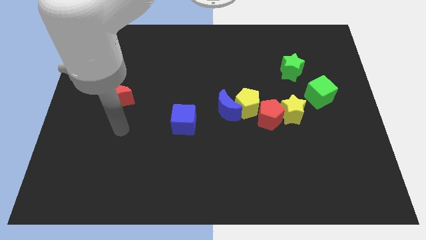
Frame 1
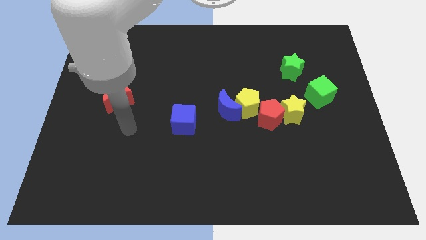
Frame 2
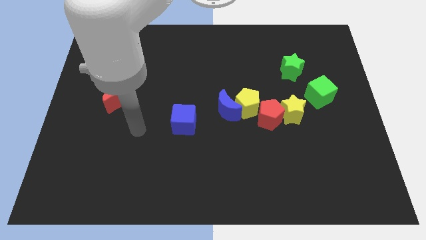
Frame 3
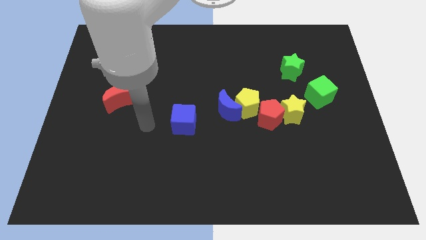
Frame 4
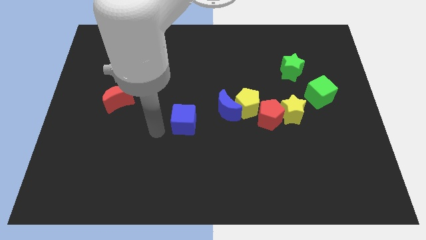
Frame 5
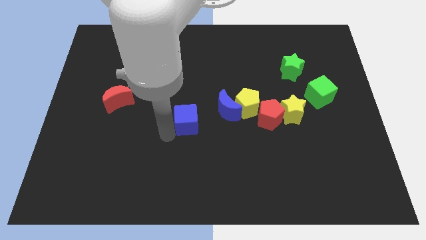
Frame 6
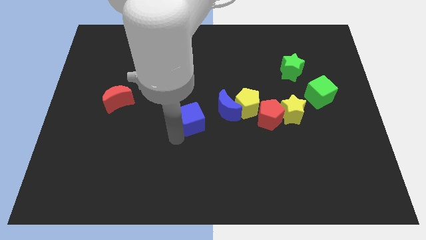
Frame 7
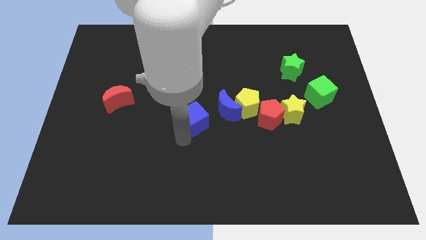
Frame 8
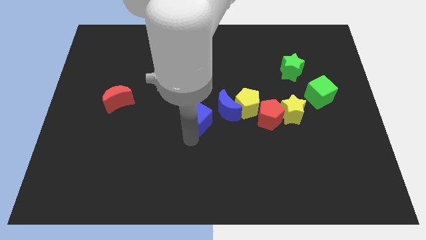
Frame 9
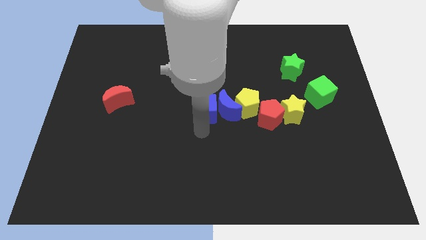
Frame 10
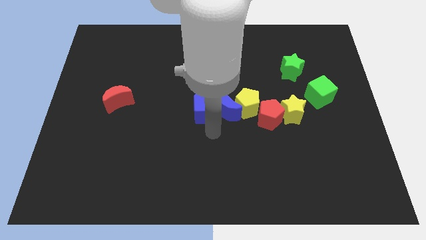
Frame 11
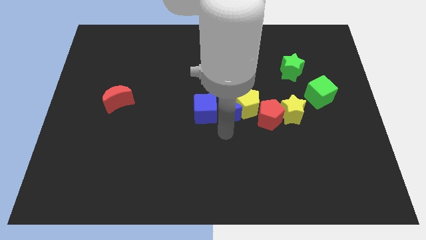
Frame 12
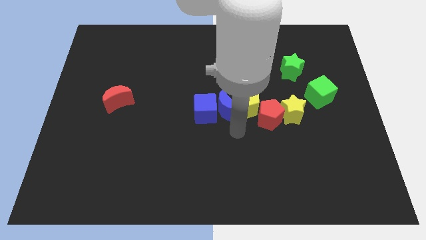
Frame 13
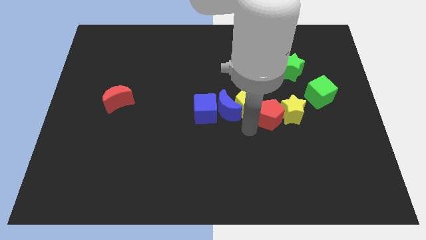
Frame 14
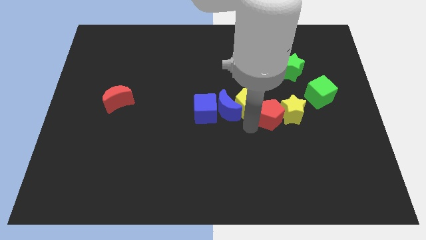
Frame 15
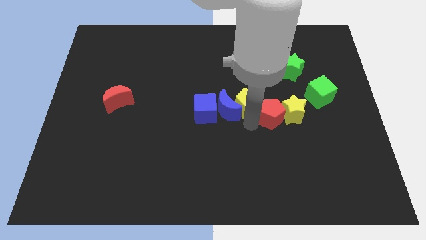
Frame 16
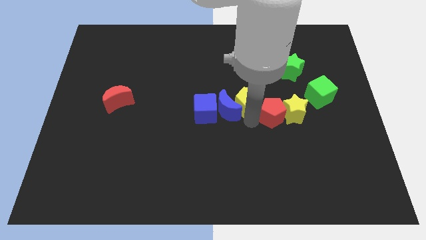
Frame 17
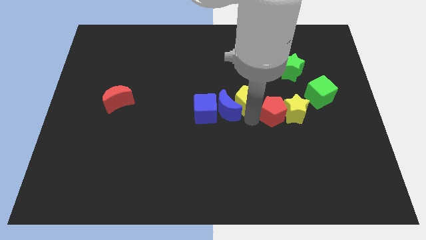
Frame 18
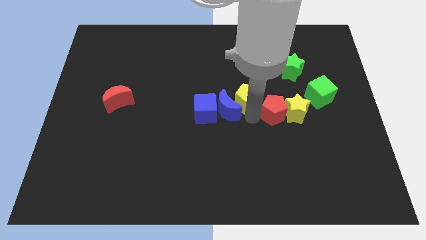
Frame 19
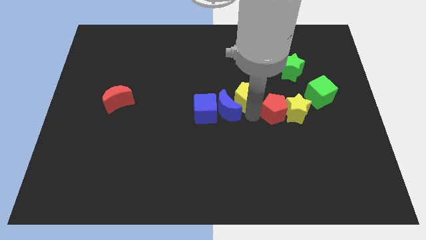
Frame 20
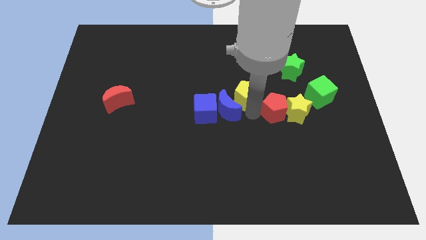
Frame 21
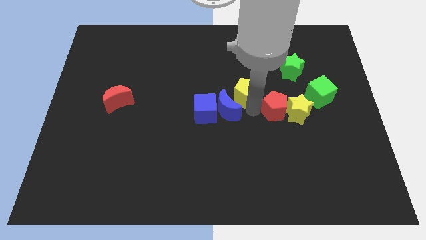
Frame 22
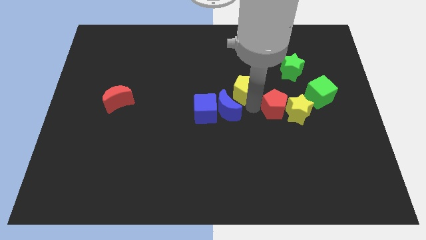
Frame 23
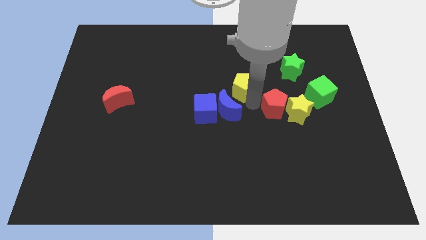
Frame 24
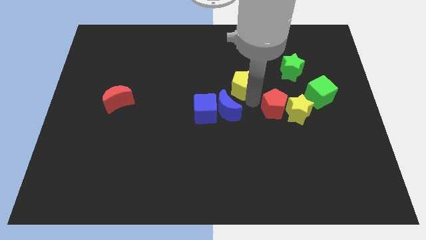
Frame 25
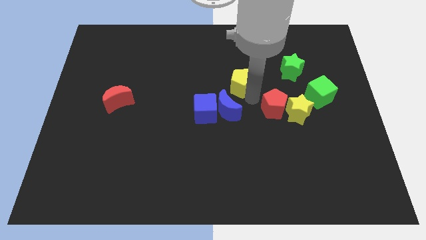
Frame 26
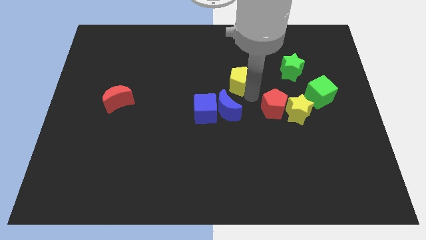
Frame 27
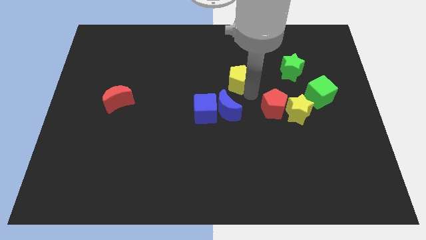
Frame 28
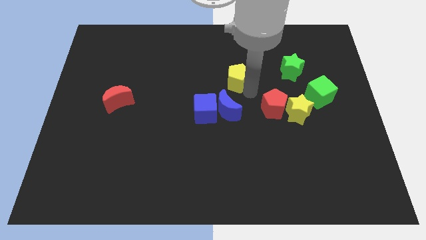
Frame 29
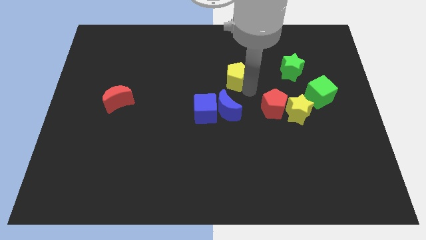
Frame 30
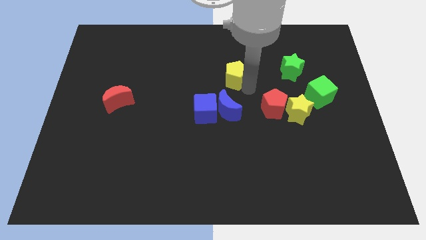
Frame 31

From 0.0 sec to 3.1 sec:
pull the yellow pentagon apart from the blue moon and red pentagon

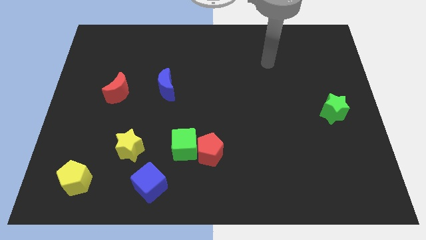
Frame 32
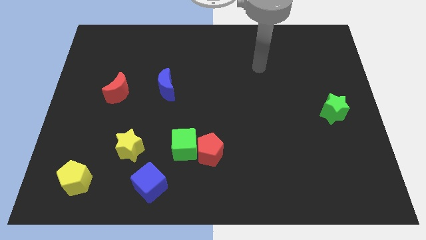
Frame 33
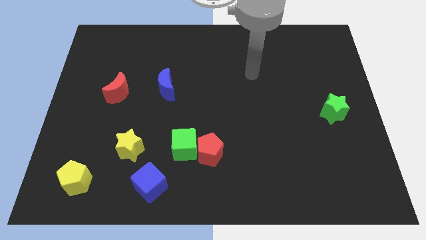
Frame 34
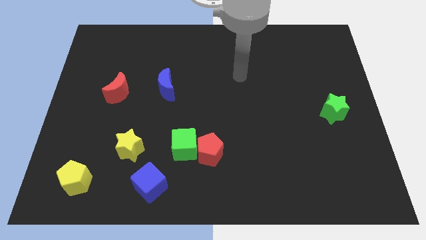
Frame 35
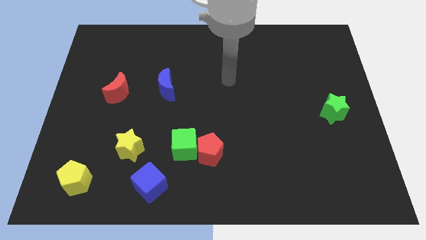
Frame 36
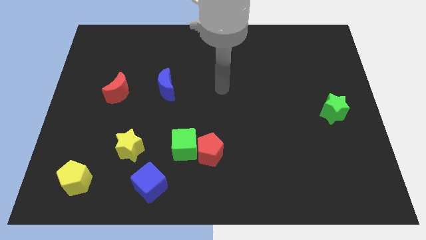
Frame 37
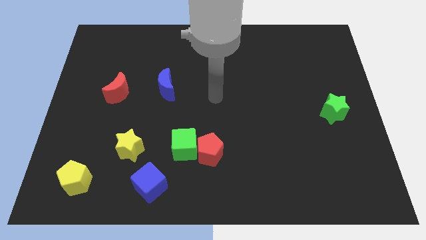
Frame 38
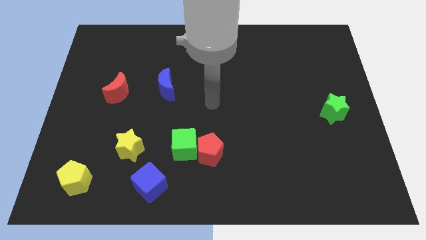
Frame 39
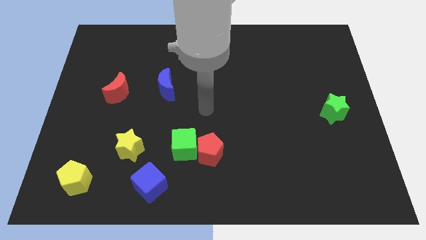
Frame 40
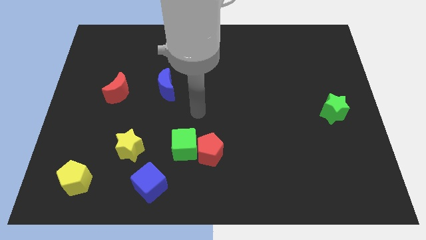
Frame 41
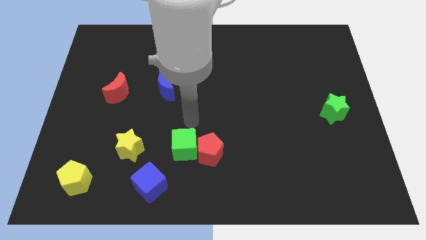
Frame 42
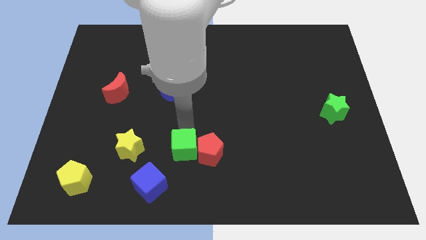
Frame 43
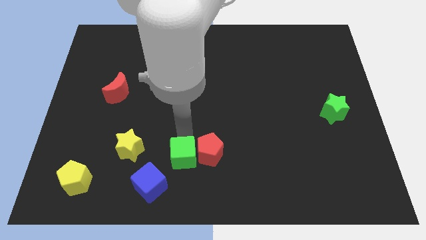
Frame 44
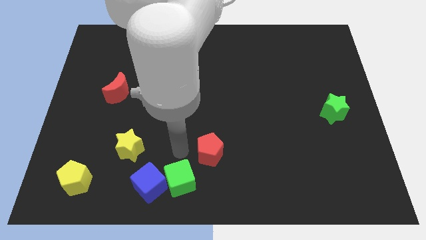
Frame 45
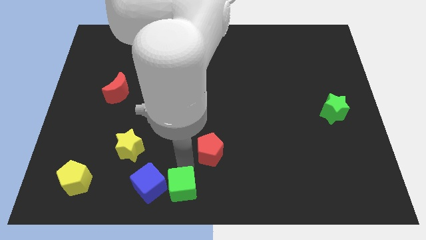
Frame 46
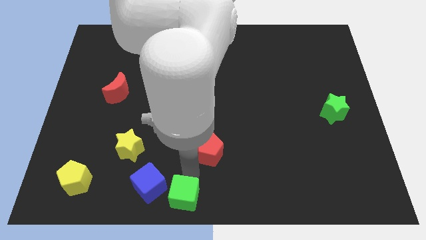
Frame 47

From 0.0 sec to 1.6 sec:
pull the red pentagon apart from the green cube

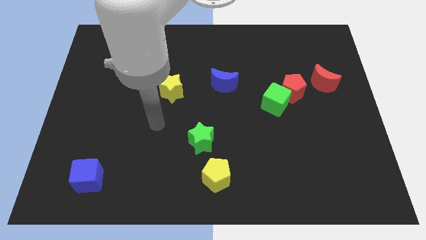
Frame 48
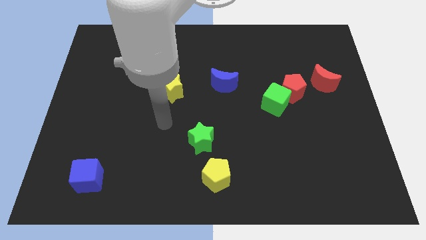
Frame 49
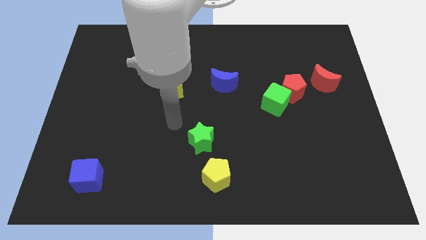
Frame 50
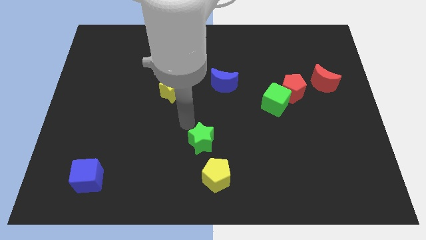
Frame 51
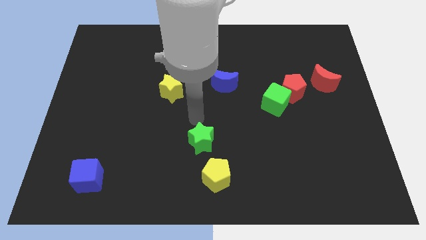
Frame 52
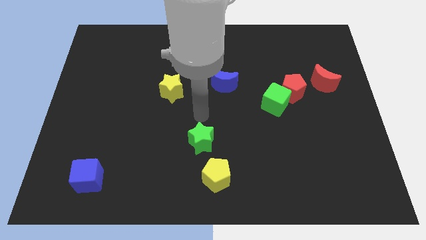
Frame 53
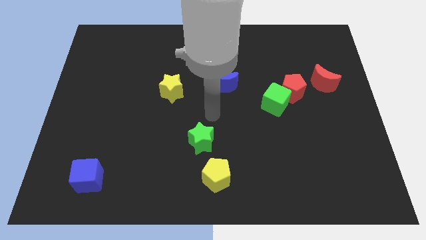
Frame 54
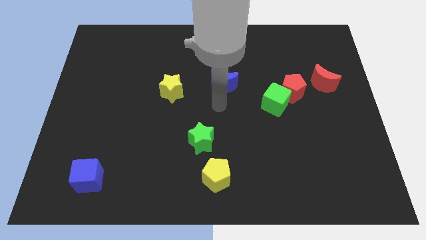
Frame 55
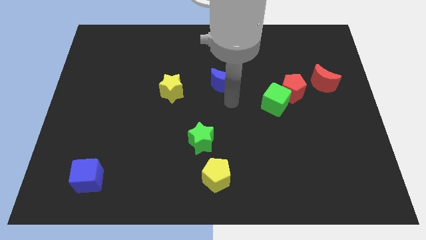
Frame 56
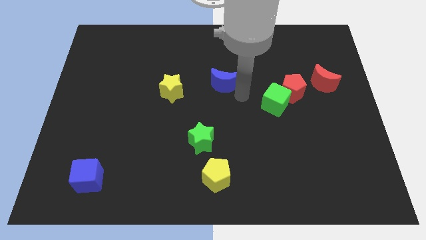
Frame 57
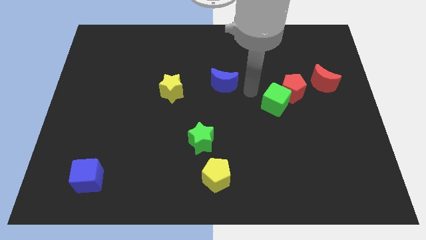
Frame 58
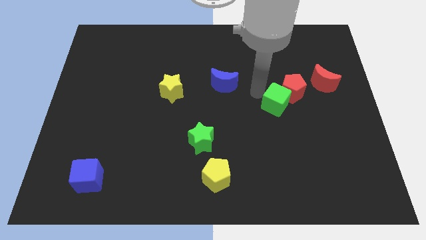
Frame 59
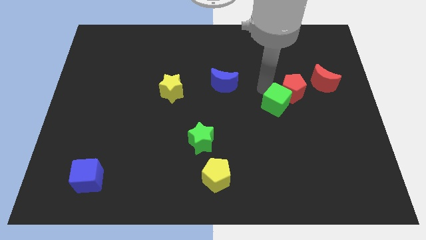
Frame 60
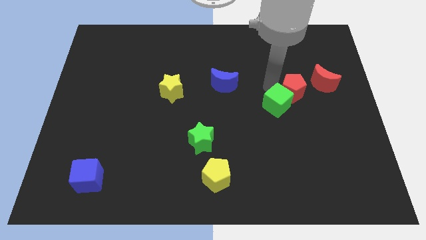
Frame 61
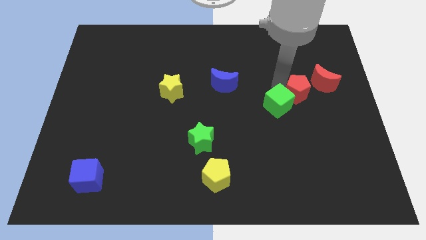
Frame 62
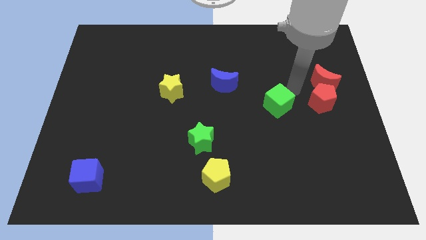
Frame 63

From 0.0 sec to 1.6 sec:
move the green cube away from the red pentagon

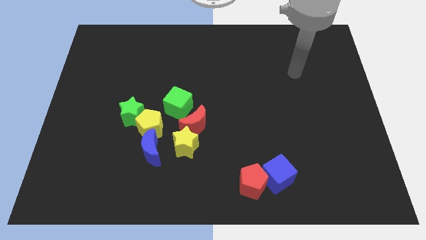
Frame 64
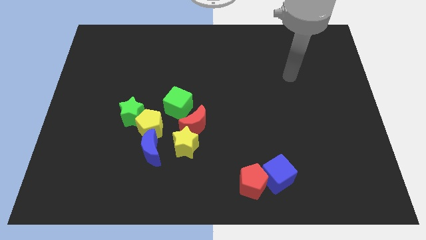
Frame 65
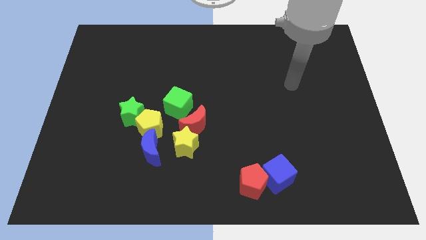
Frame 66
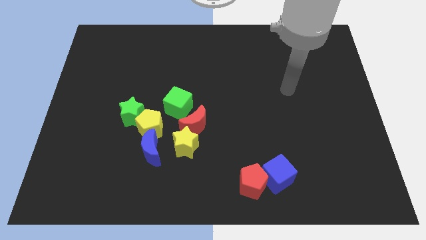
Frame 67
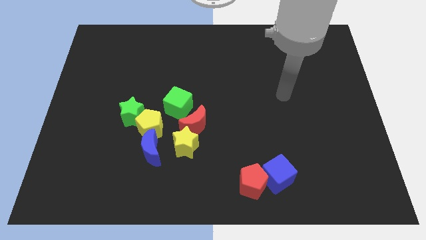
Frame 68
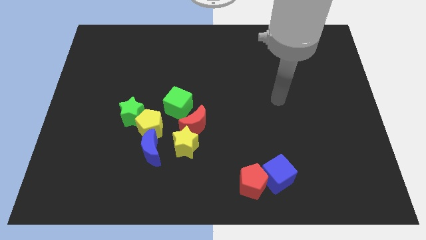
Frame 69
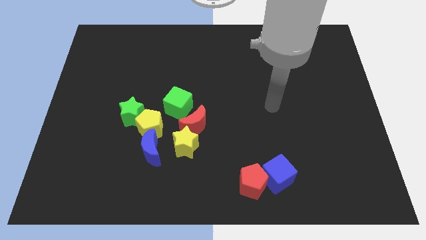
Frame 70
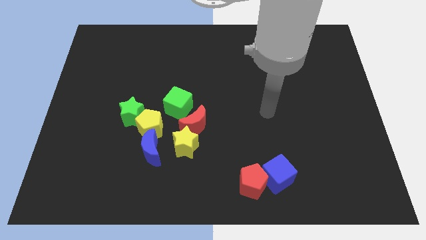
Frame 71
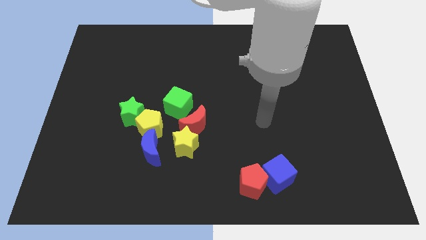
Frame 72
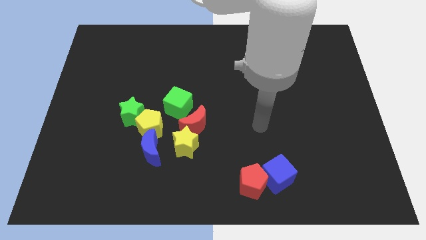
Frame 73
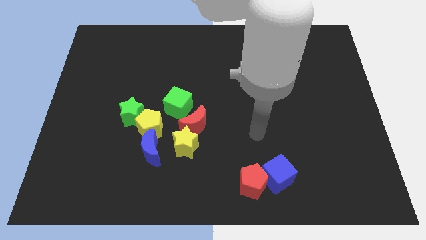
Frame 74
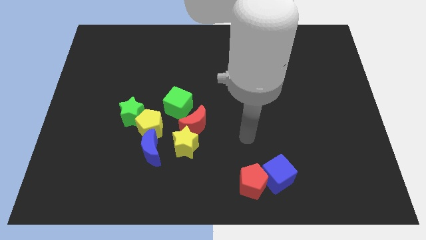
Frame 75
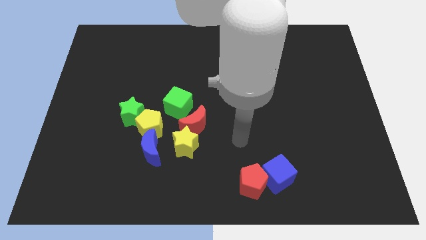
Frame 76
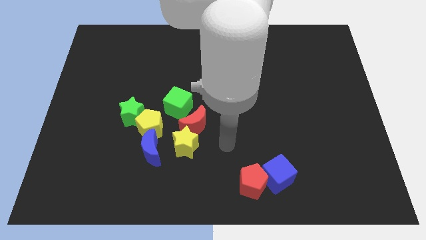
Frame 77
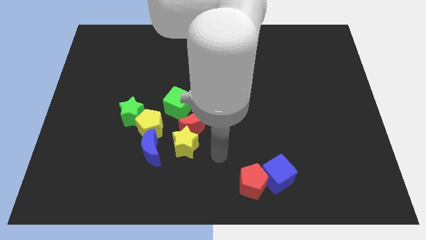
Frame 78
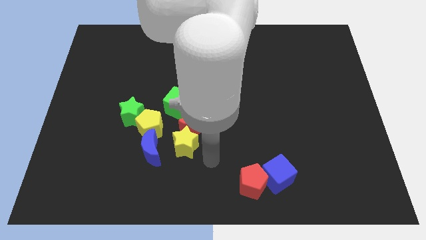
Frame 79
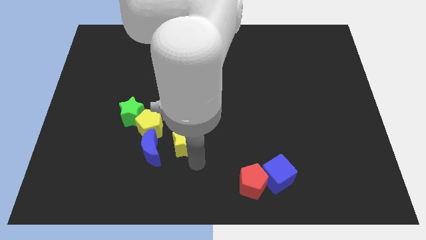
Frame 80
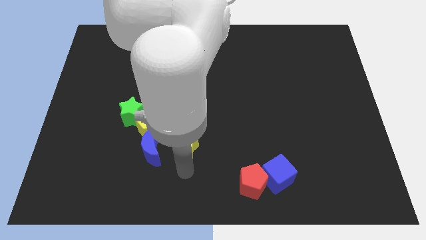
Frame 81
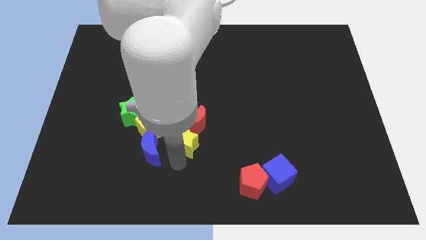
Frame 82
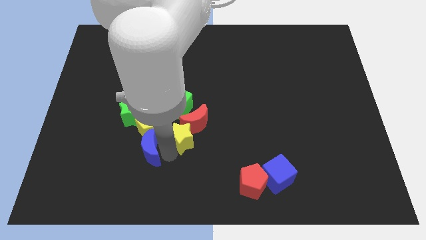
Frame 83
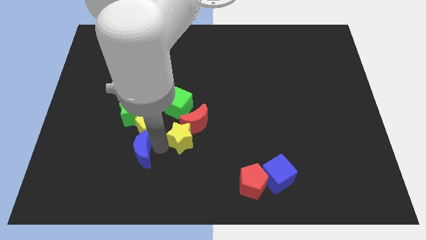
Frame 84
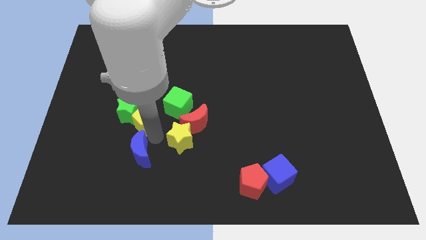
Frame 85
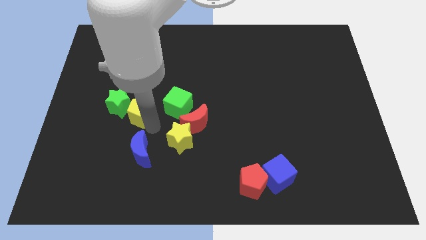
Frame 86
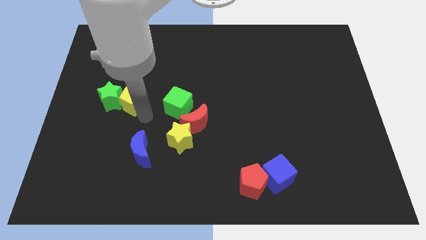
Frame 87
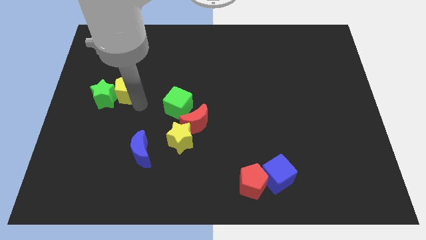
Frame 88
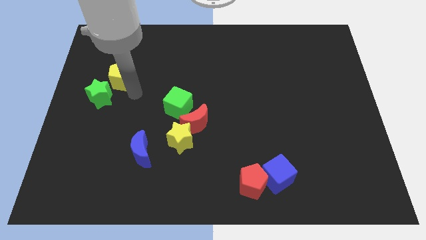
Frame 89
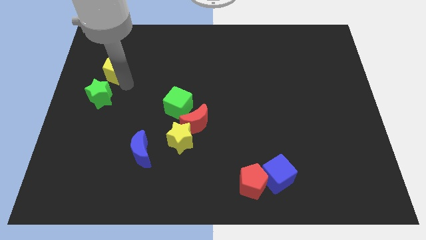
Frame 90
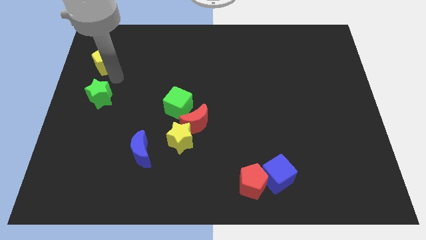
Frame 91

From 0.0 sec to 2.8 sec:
separate the green star from the yellow pentagon

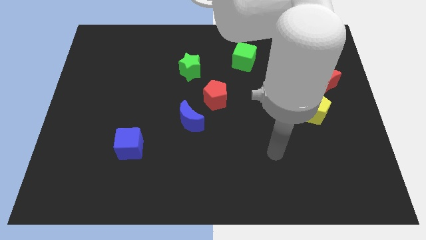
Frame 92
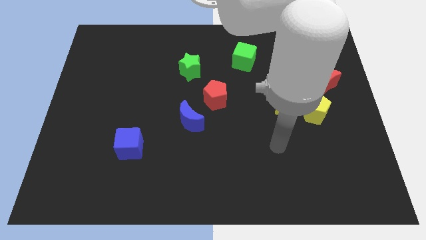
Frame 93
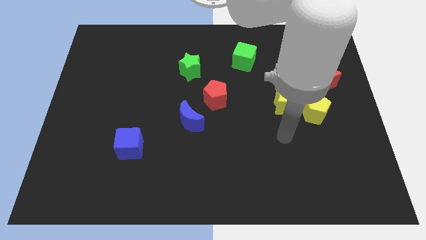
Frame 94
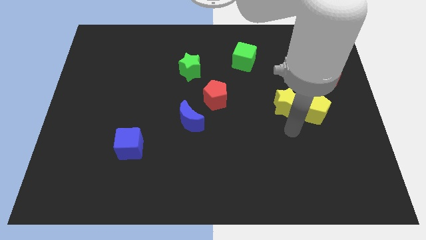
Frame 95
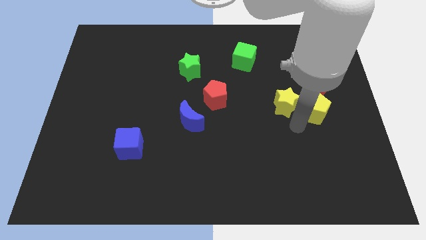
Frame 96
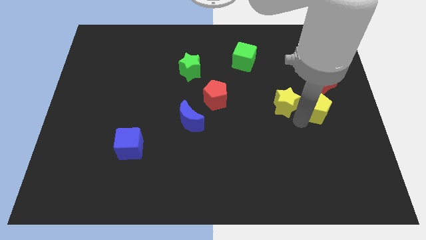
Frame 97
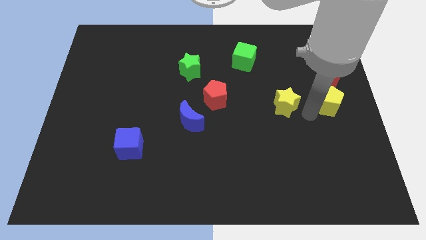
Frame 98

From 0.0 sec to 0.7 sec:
pull the yellow star apart from the yellow pentagon
